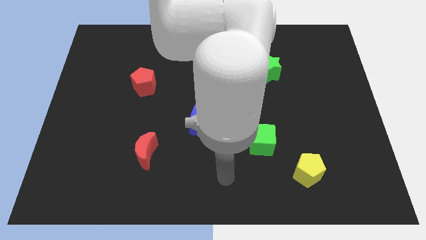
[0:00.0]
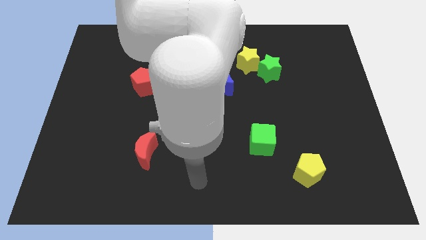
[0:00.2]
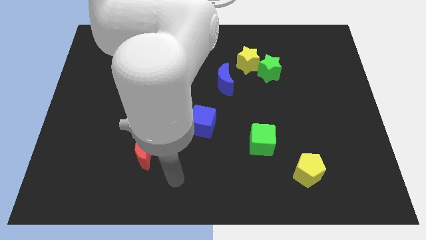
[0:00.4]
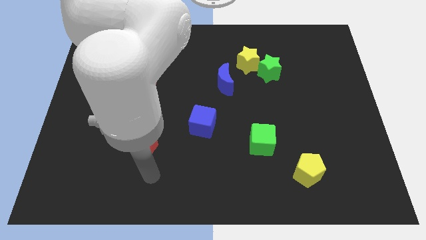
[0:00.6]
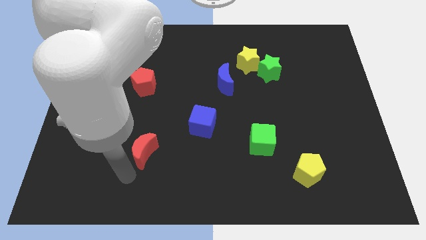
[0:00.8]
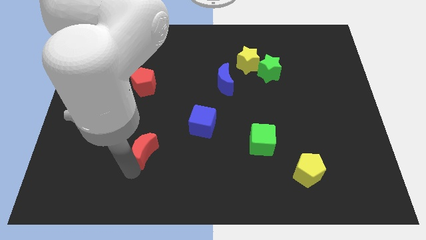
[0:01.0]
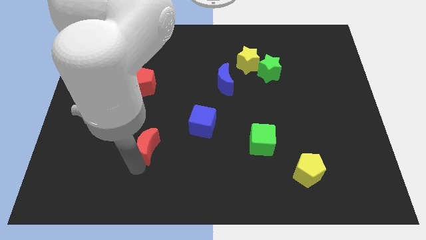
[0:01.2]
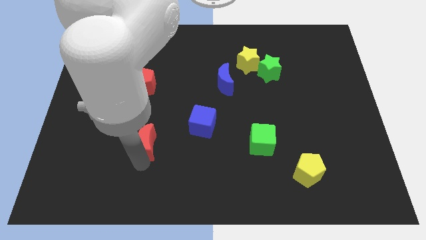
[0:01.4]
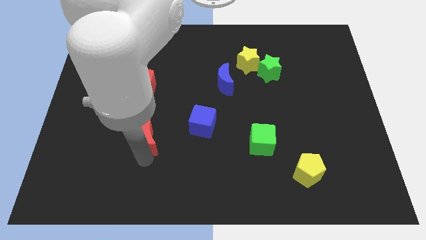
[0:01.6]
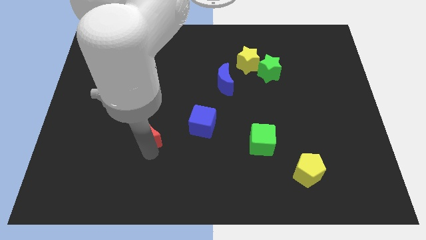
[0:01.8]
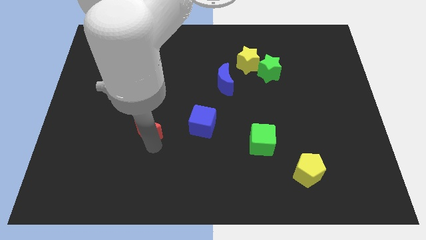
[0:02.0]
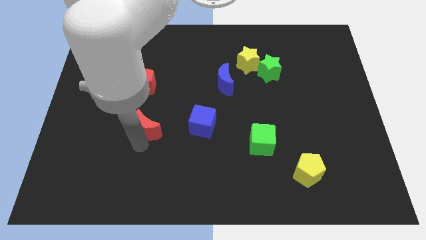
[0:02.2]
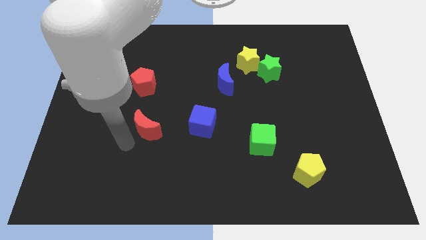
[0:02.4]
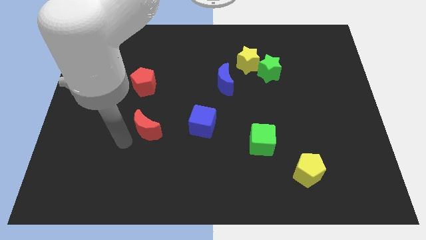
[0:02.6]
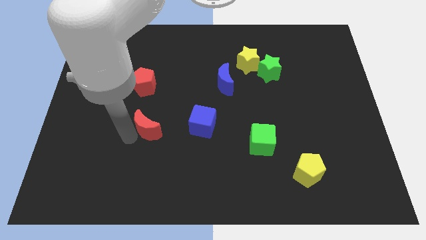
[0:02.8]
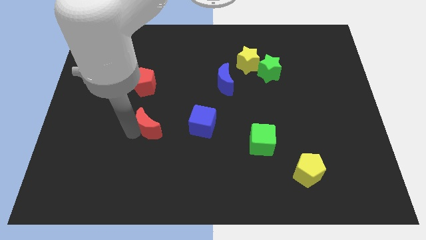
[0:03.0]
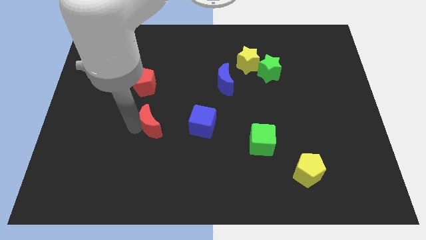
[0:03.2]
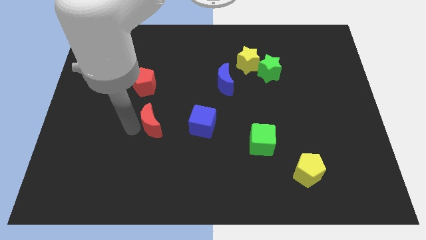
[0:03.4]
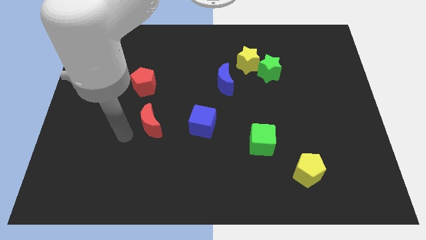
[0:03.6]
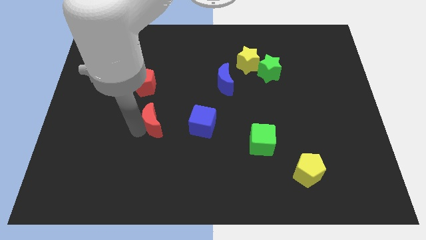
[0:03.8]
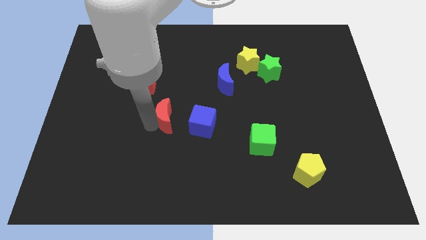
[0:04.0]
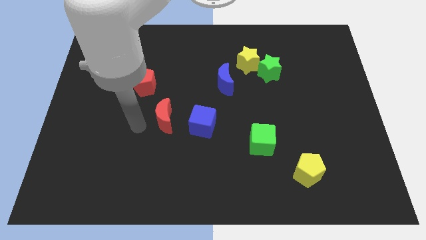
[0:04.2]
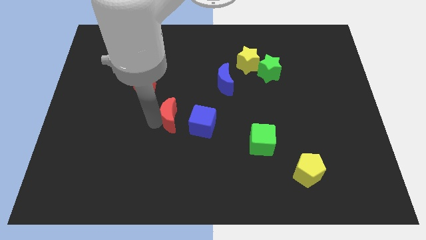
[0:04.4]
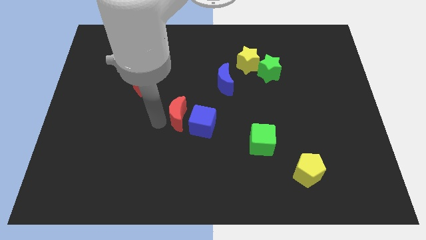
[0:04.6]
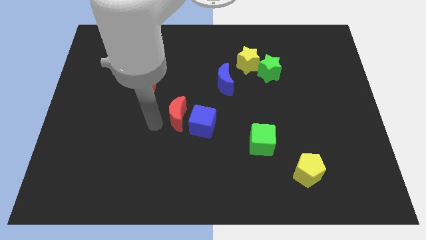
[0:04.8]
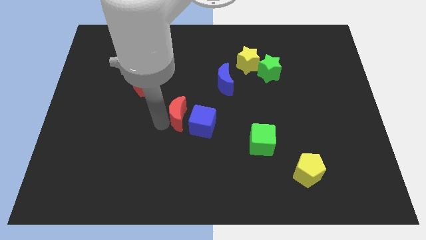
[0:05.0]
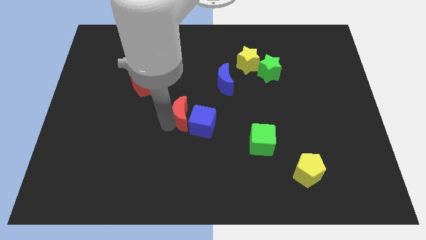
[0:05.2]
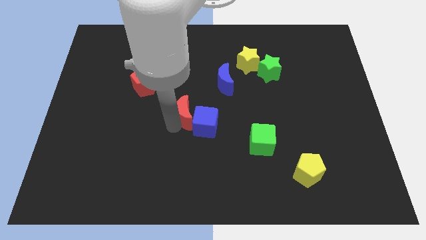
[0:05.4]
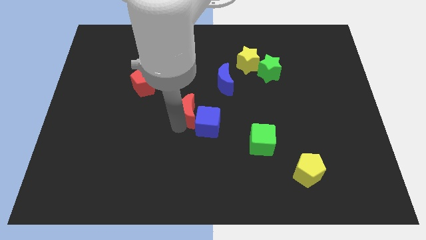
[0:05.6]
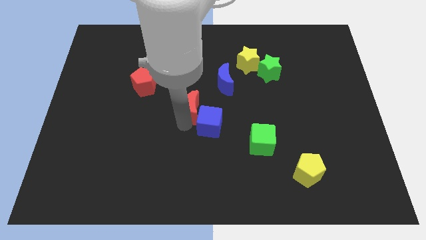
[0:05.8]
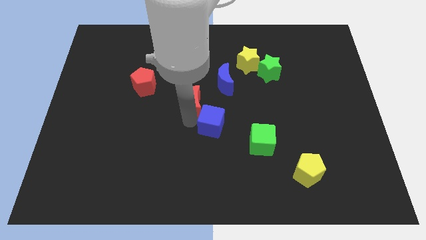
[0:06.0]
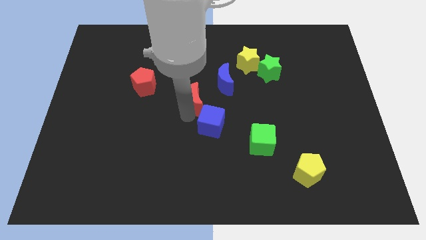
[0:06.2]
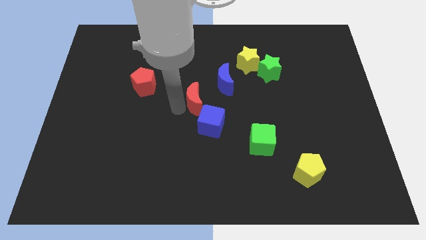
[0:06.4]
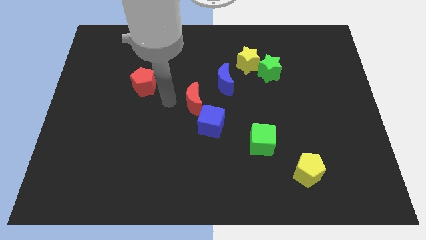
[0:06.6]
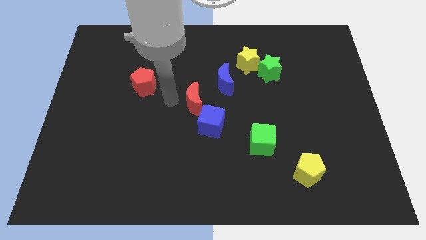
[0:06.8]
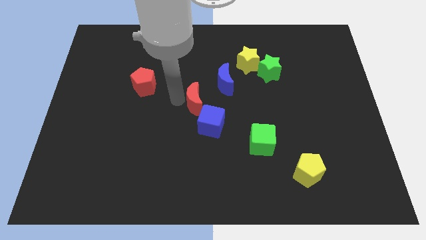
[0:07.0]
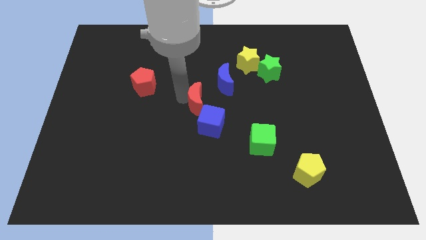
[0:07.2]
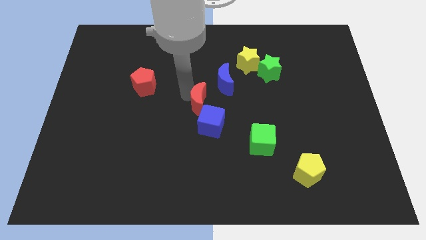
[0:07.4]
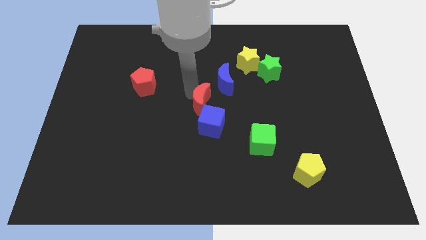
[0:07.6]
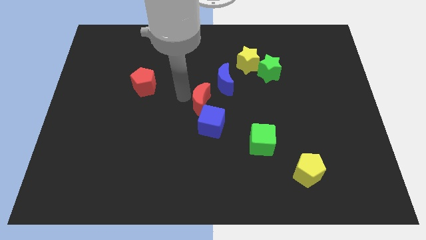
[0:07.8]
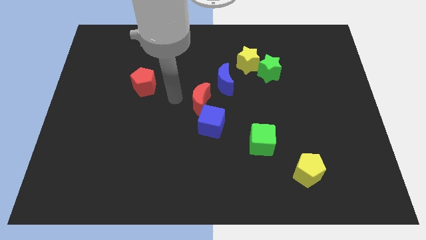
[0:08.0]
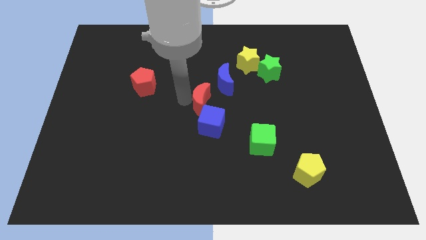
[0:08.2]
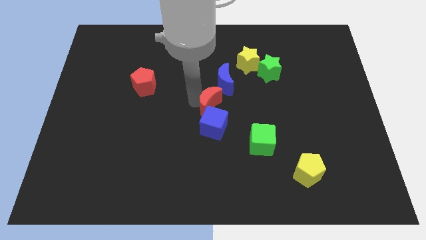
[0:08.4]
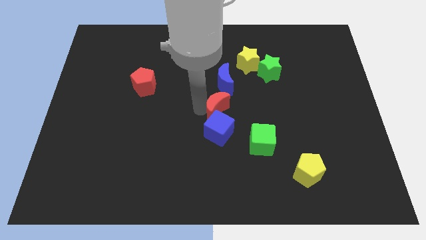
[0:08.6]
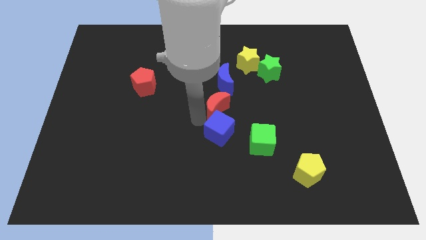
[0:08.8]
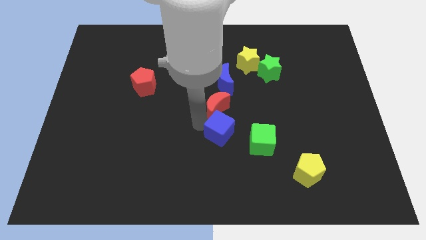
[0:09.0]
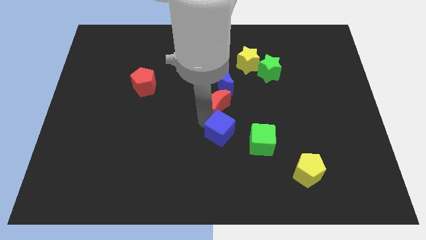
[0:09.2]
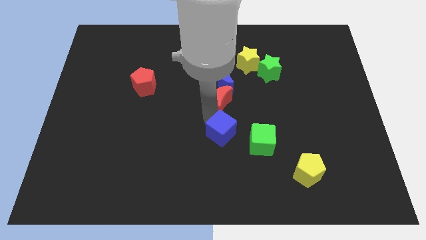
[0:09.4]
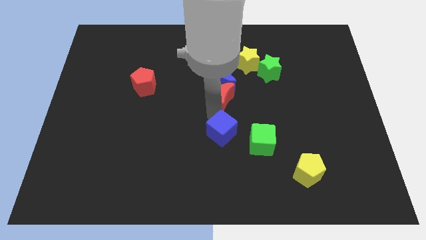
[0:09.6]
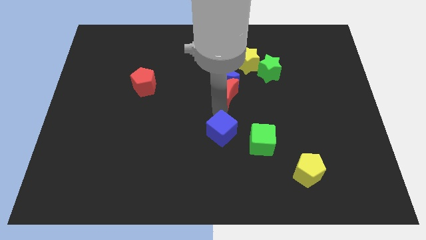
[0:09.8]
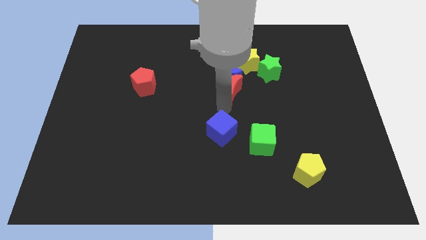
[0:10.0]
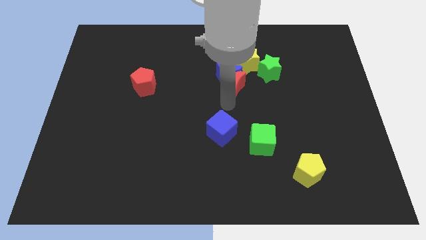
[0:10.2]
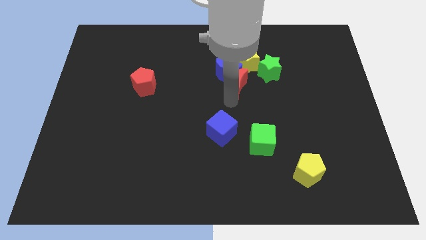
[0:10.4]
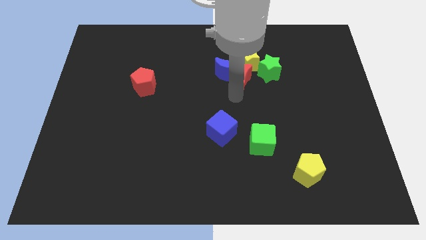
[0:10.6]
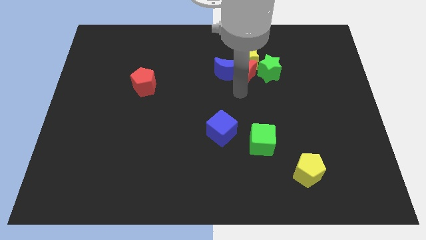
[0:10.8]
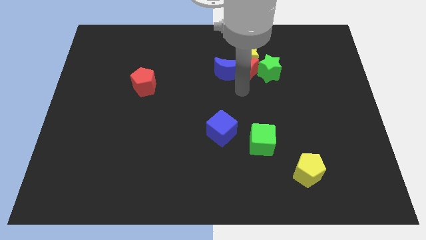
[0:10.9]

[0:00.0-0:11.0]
push the red moon next to the green star
